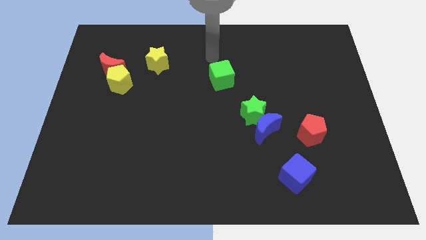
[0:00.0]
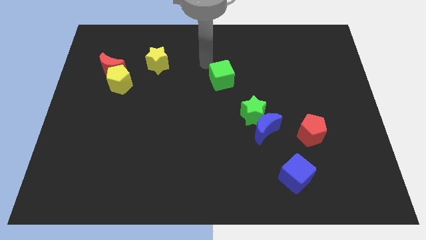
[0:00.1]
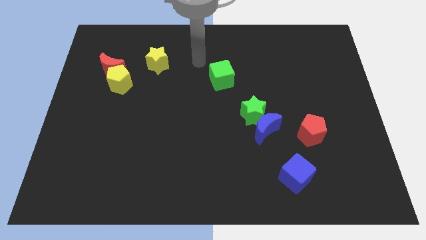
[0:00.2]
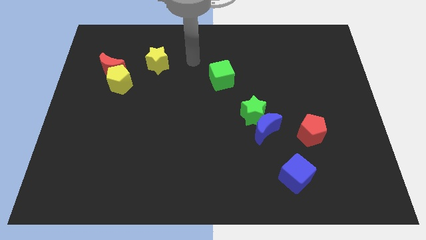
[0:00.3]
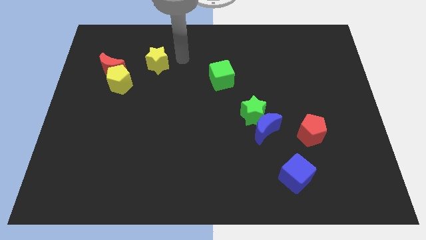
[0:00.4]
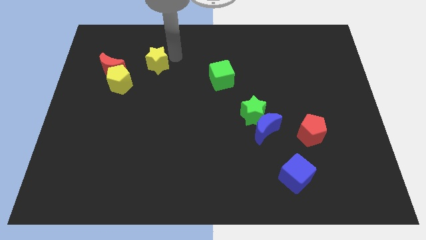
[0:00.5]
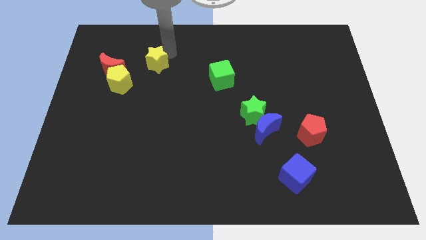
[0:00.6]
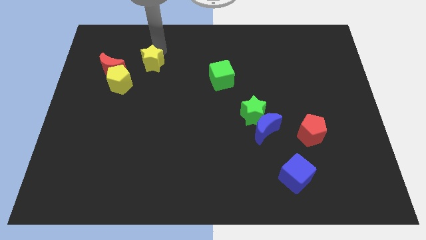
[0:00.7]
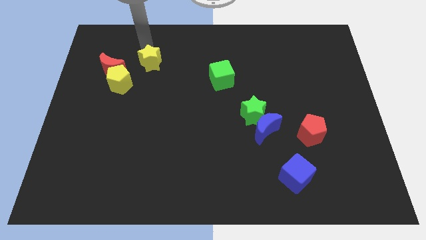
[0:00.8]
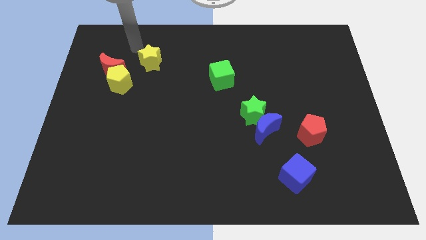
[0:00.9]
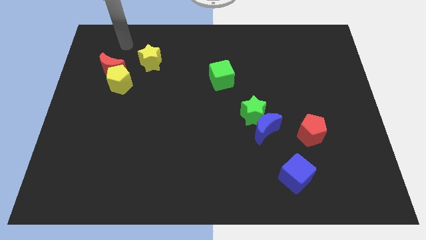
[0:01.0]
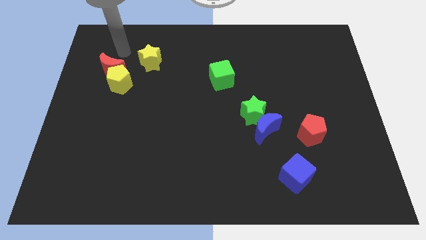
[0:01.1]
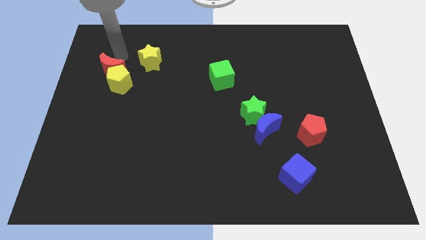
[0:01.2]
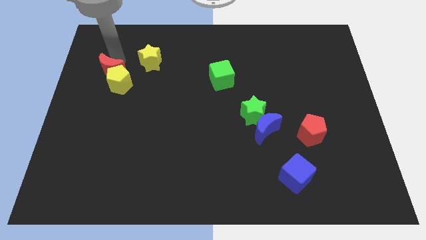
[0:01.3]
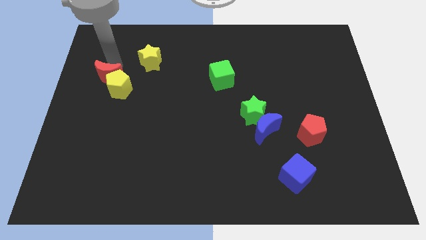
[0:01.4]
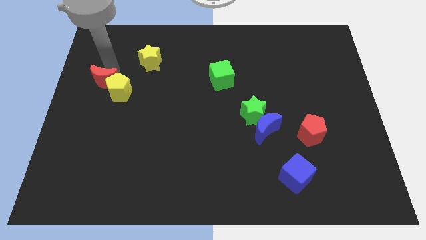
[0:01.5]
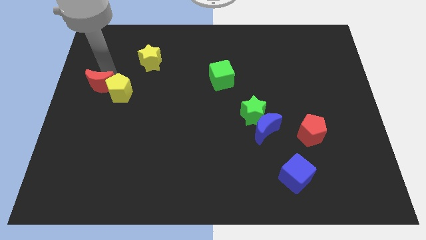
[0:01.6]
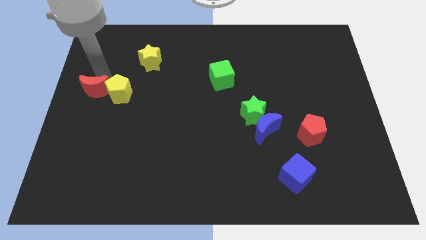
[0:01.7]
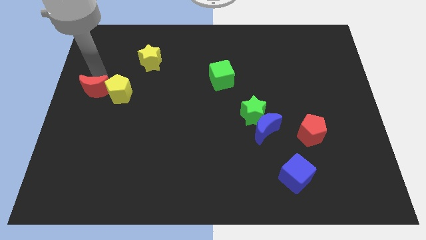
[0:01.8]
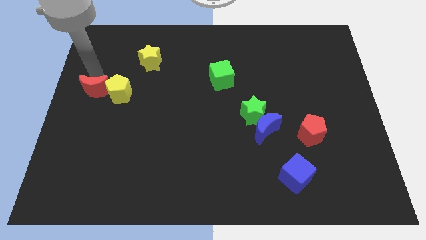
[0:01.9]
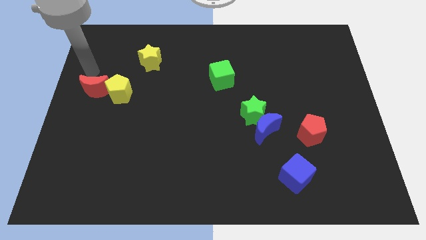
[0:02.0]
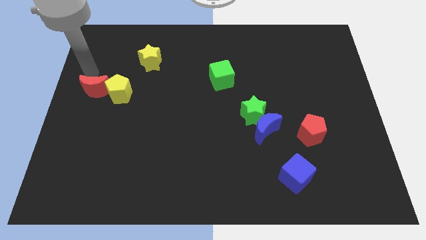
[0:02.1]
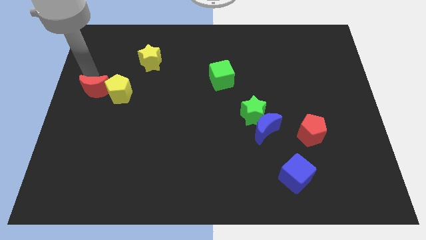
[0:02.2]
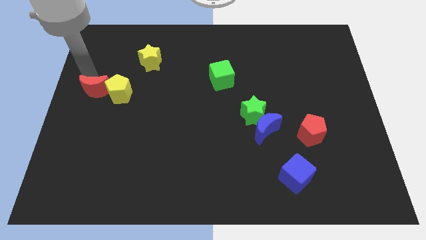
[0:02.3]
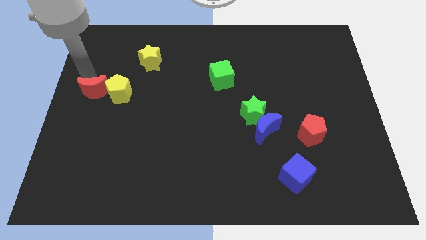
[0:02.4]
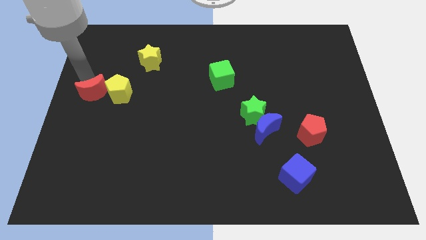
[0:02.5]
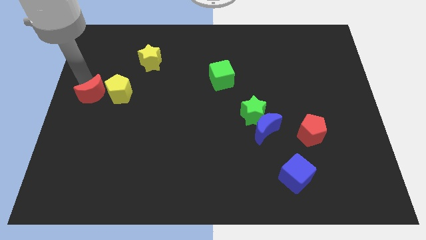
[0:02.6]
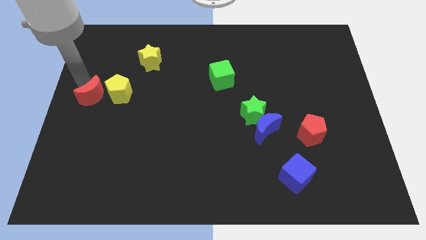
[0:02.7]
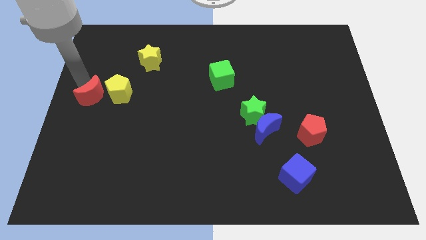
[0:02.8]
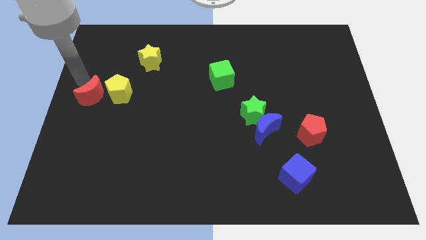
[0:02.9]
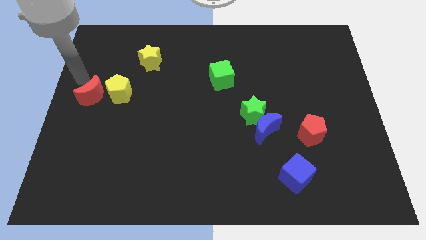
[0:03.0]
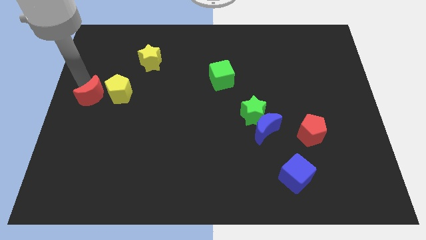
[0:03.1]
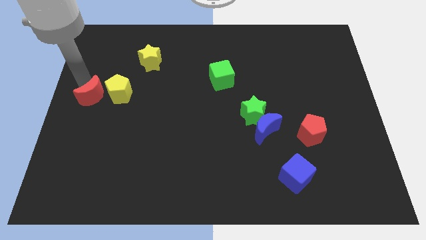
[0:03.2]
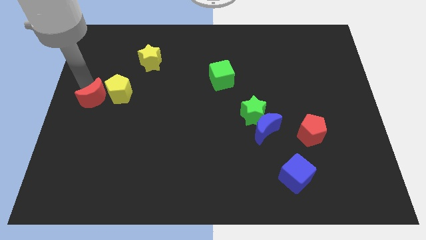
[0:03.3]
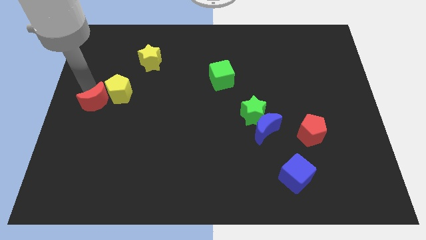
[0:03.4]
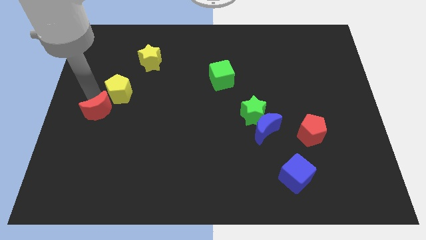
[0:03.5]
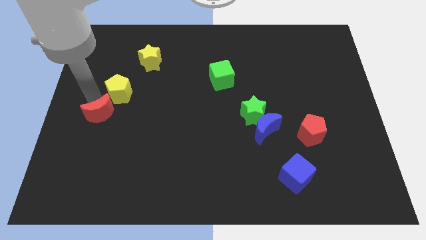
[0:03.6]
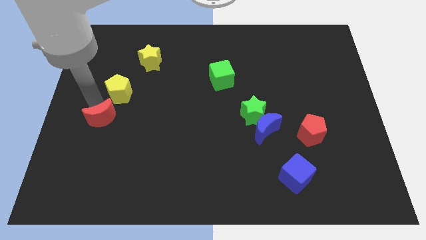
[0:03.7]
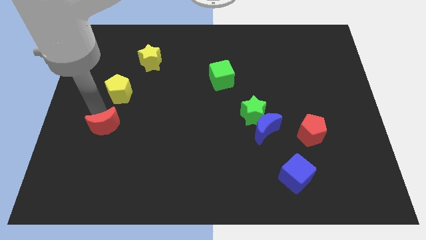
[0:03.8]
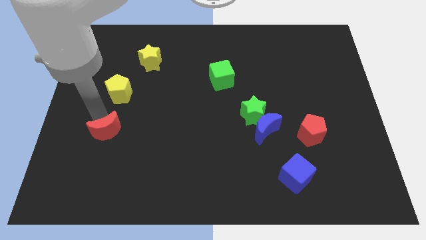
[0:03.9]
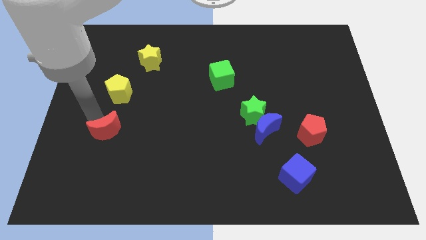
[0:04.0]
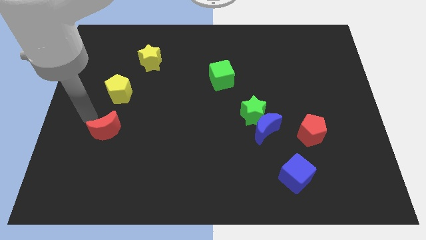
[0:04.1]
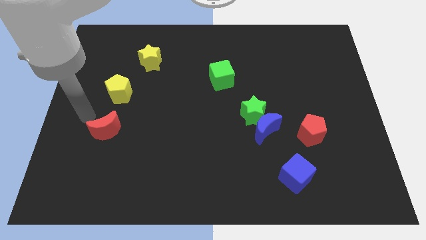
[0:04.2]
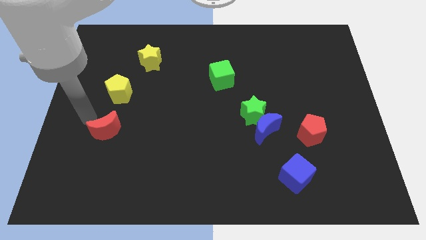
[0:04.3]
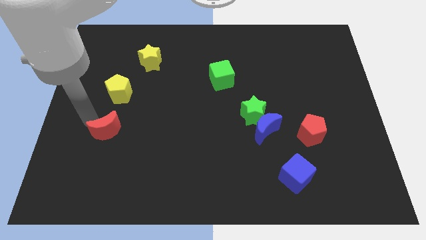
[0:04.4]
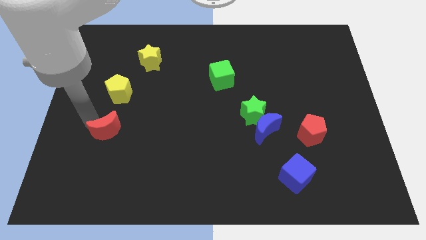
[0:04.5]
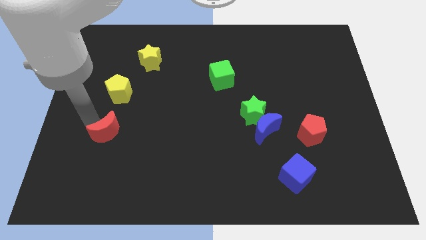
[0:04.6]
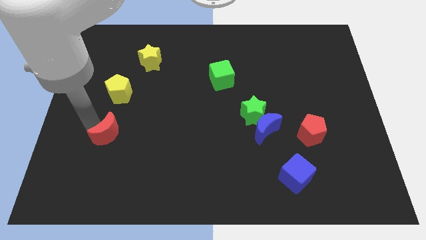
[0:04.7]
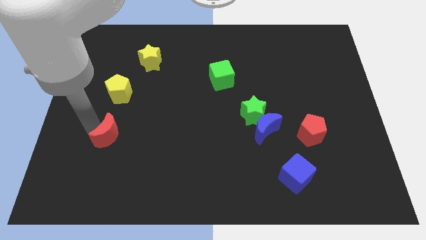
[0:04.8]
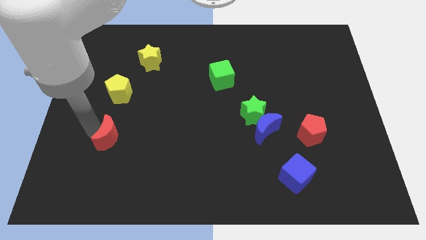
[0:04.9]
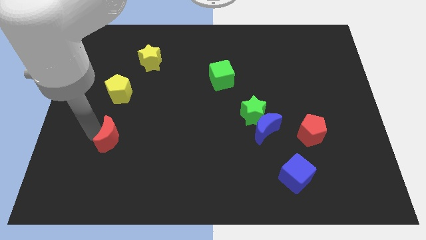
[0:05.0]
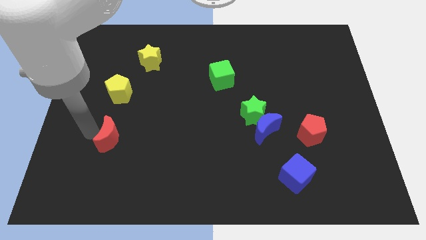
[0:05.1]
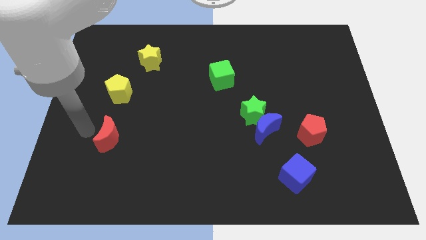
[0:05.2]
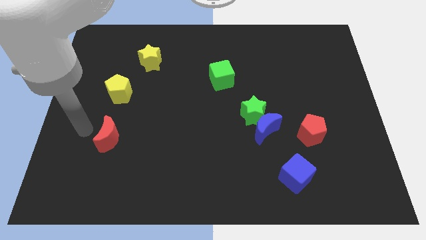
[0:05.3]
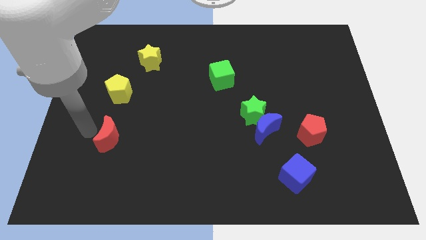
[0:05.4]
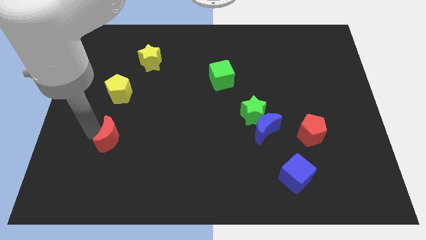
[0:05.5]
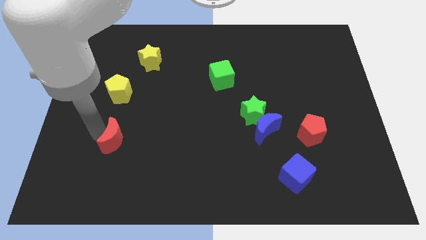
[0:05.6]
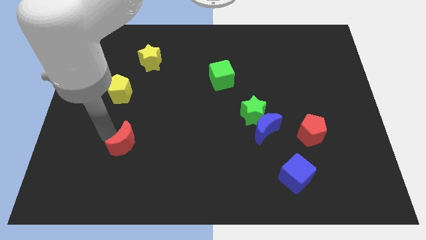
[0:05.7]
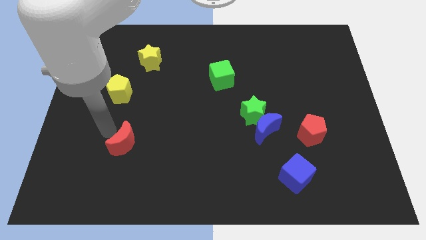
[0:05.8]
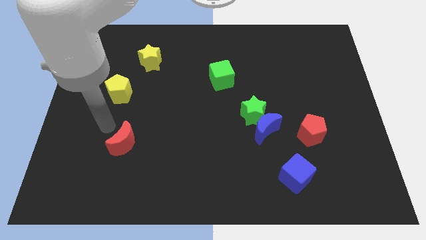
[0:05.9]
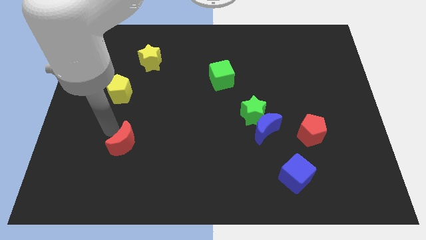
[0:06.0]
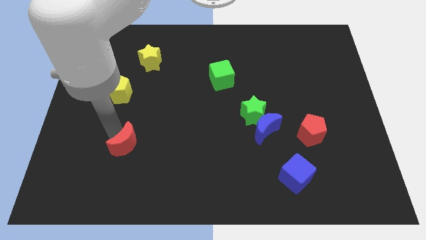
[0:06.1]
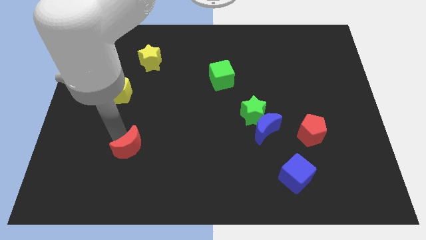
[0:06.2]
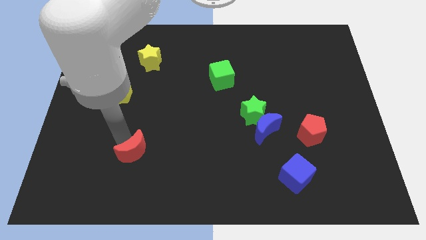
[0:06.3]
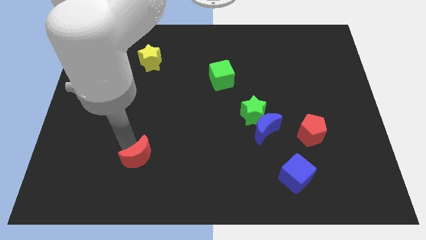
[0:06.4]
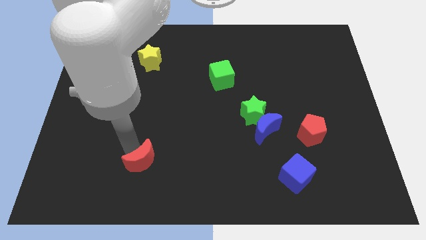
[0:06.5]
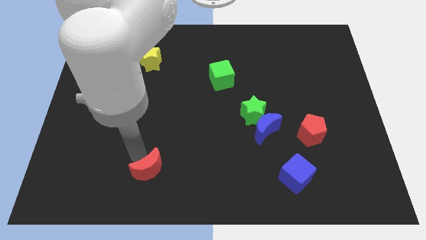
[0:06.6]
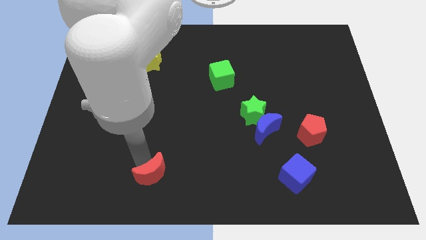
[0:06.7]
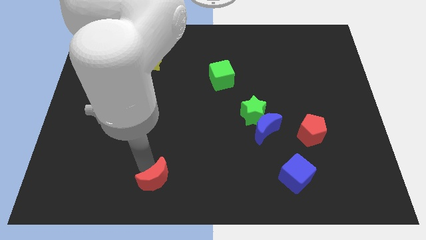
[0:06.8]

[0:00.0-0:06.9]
slide the red moon to the bottom side
